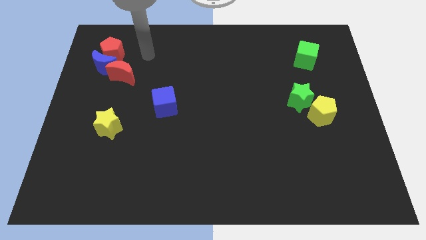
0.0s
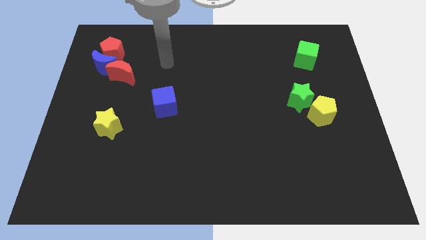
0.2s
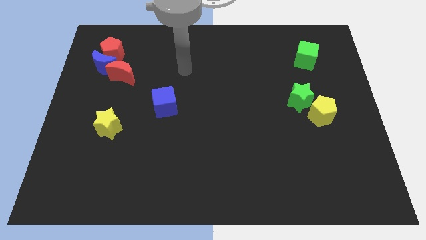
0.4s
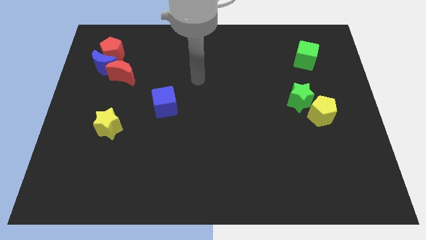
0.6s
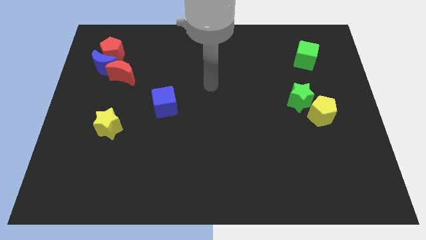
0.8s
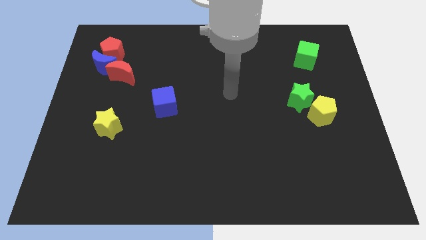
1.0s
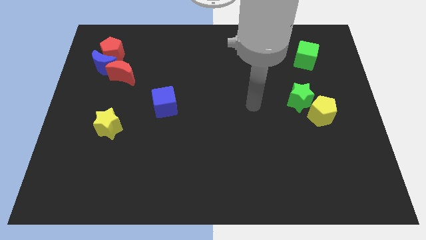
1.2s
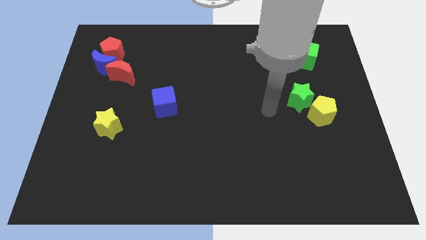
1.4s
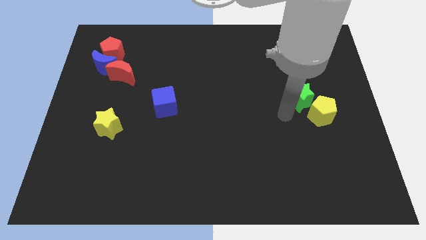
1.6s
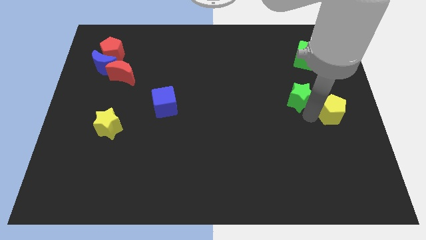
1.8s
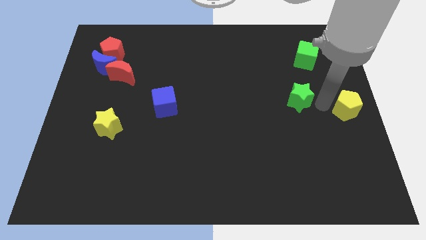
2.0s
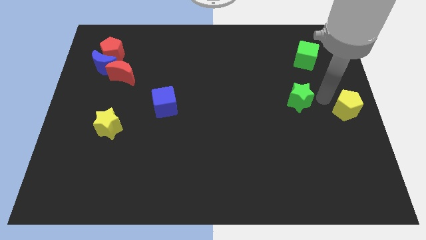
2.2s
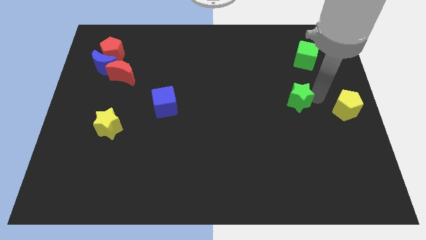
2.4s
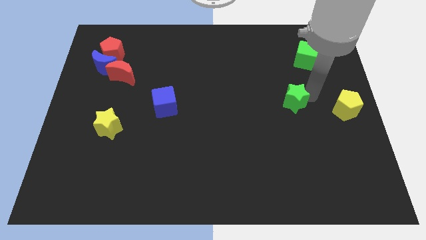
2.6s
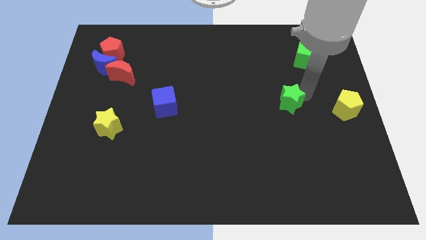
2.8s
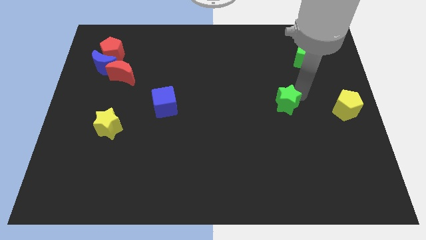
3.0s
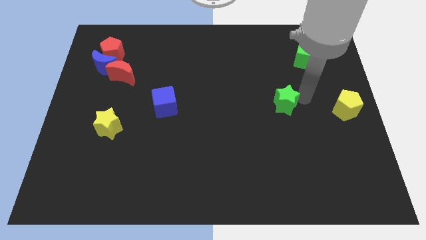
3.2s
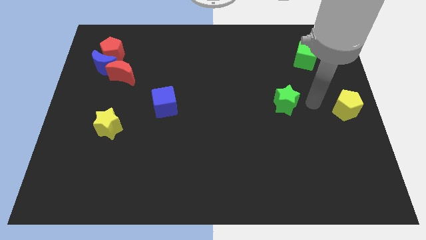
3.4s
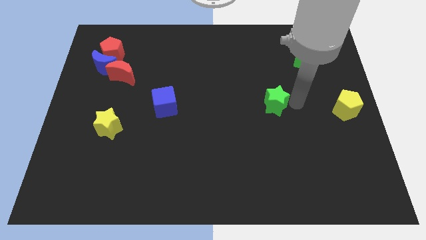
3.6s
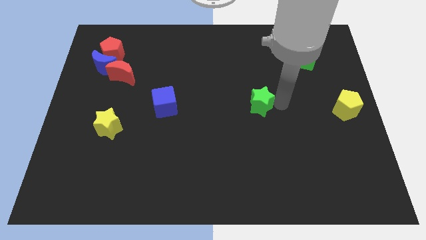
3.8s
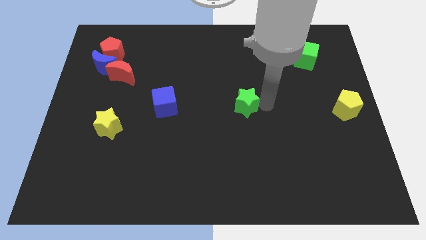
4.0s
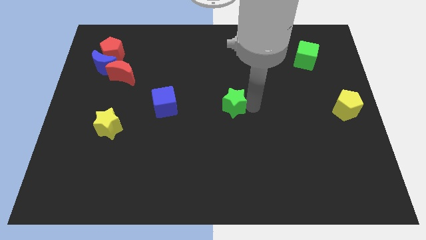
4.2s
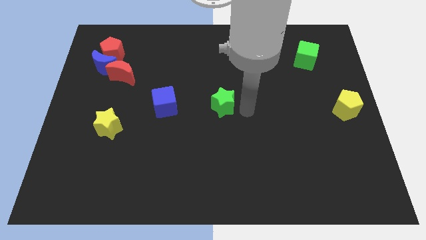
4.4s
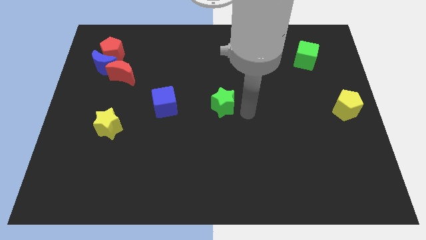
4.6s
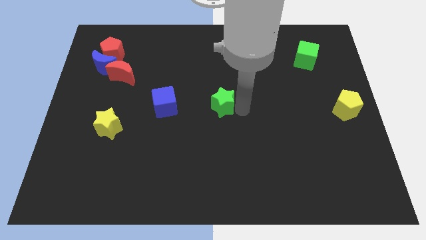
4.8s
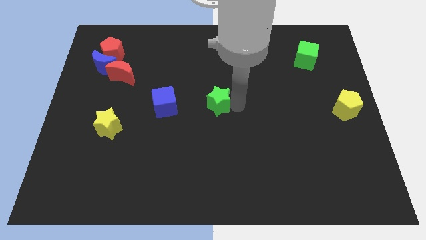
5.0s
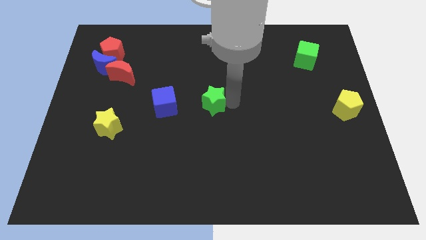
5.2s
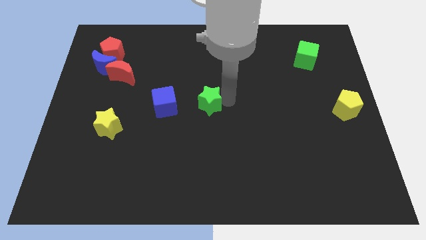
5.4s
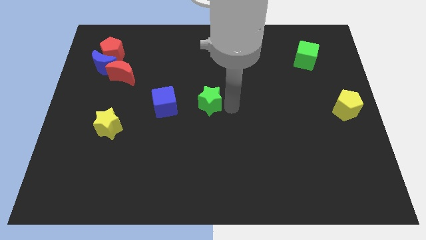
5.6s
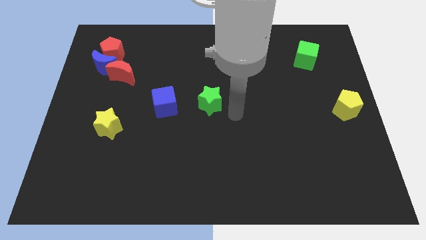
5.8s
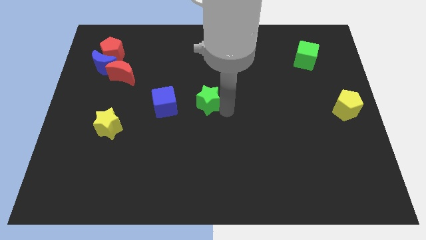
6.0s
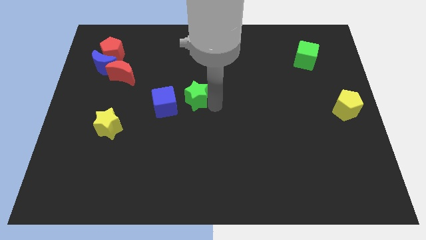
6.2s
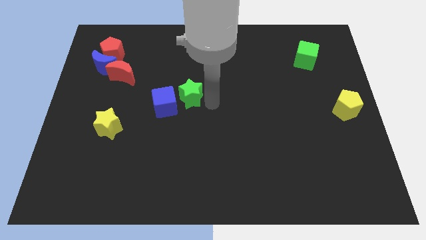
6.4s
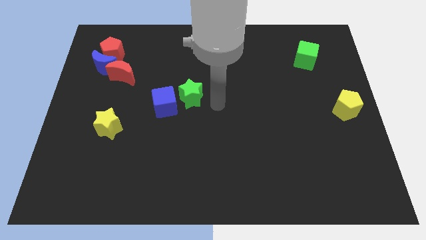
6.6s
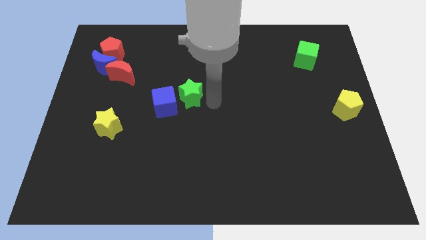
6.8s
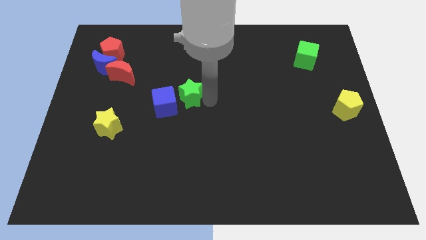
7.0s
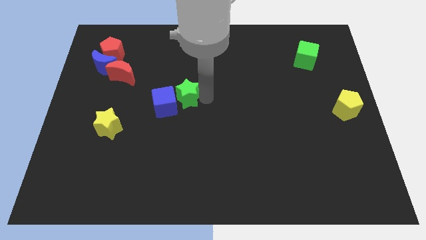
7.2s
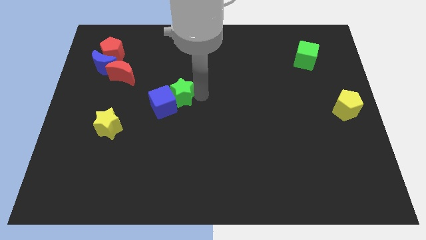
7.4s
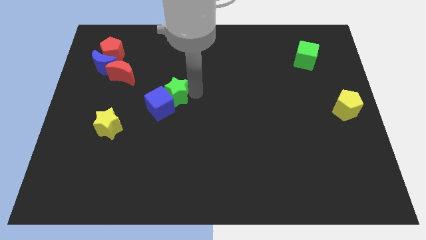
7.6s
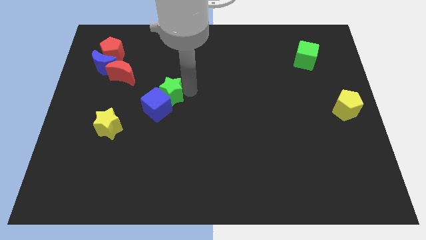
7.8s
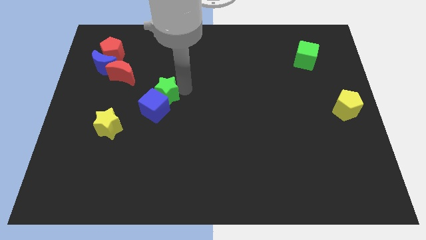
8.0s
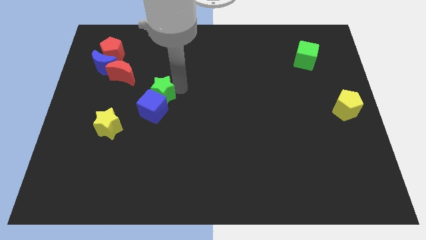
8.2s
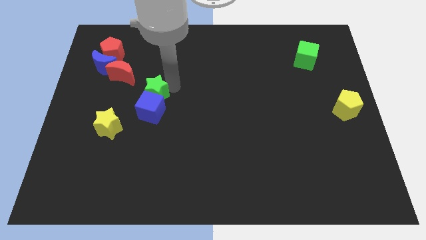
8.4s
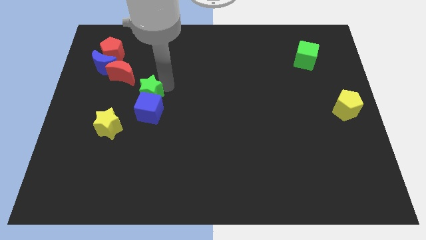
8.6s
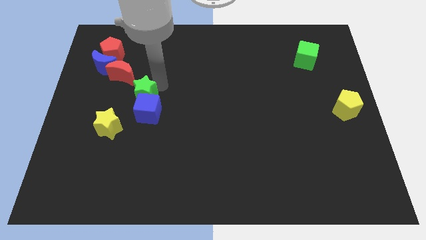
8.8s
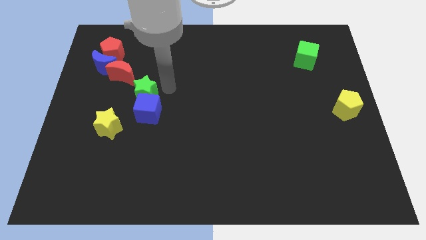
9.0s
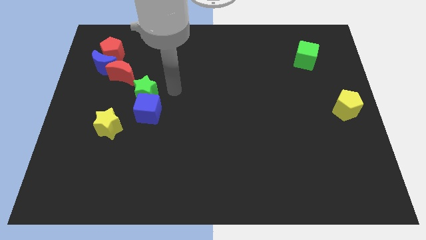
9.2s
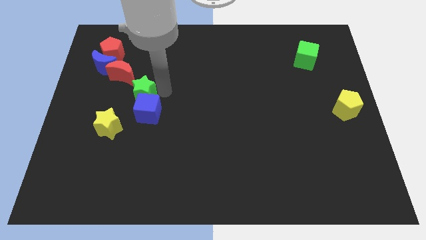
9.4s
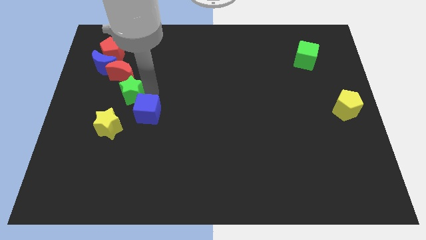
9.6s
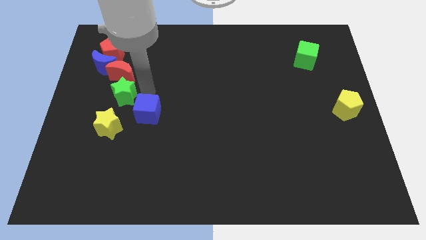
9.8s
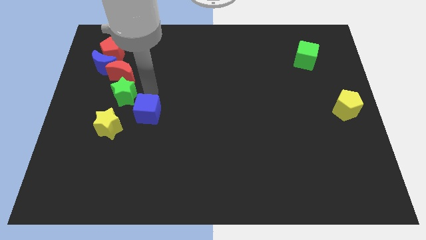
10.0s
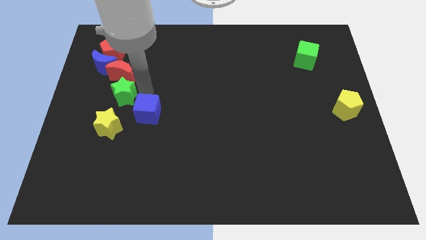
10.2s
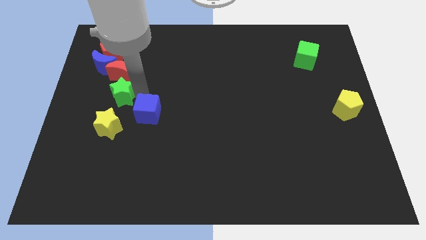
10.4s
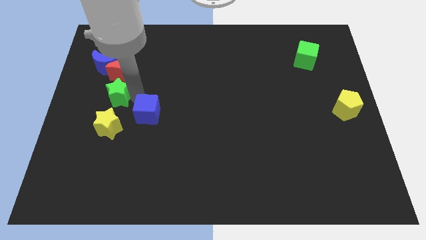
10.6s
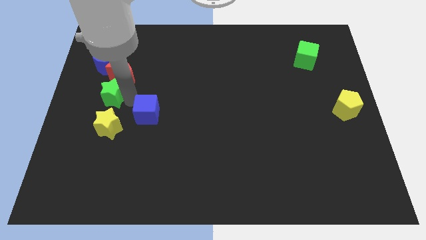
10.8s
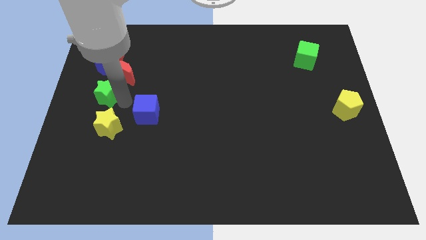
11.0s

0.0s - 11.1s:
slide the green star to the left side

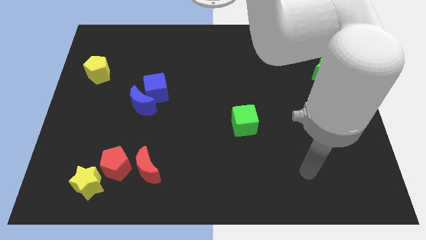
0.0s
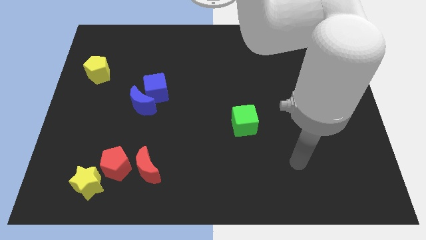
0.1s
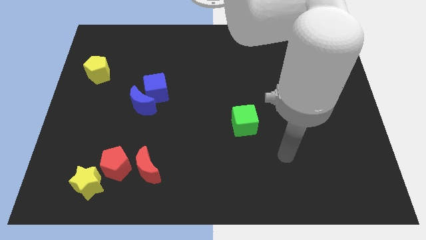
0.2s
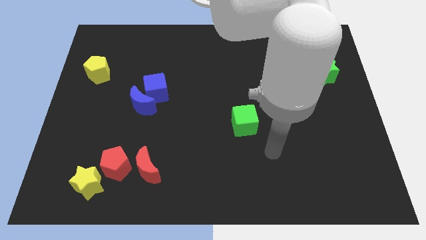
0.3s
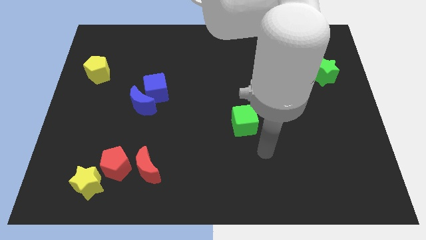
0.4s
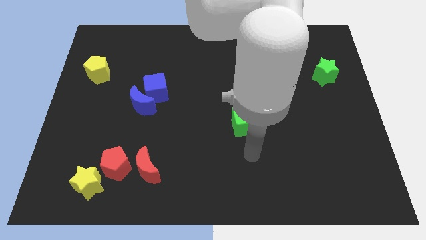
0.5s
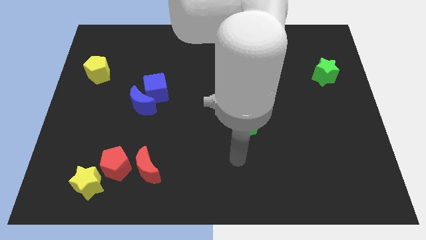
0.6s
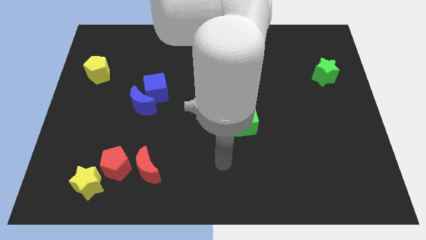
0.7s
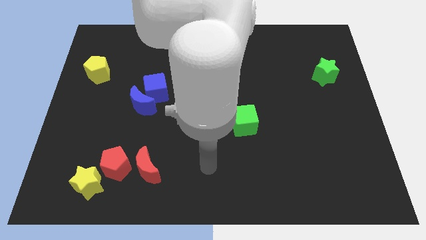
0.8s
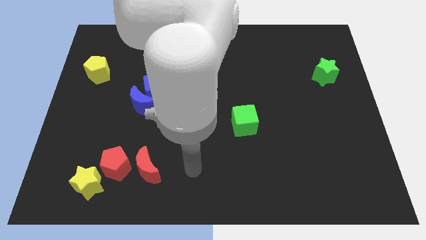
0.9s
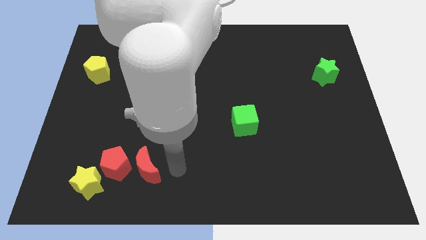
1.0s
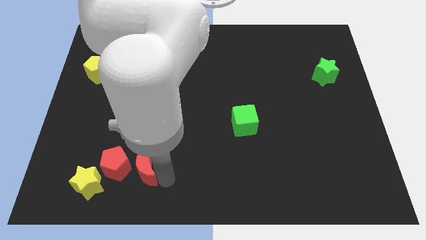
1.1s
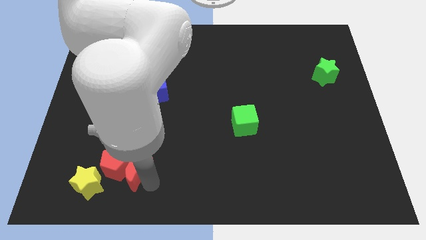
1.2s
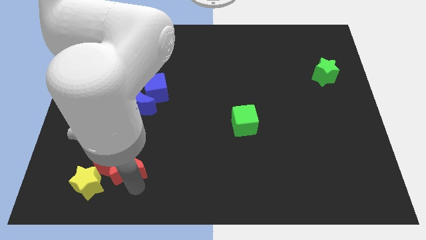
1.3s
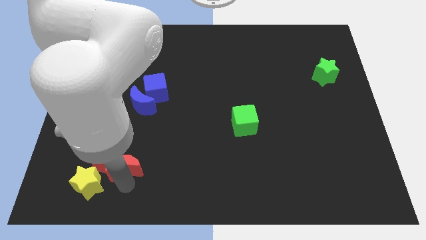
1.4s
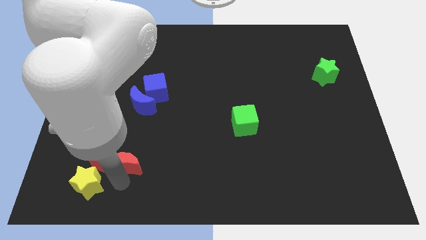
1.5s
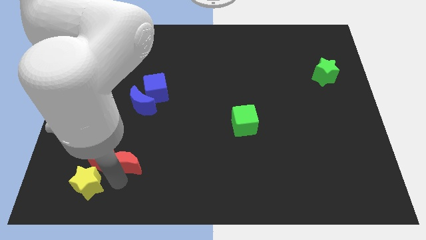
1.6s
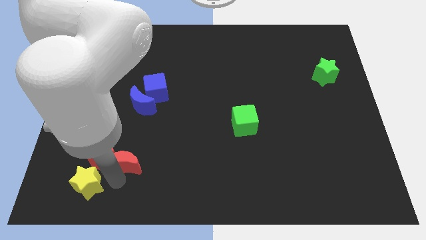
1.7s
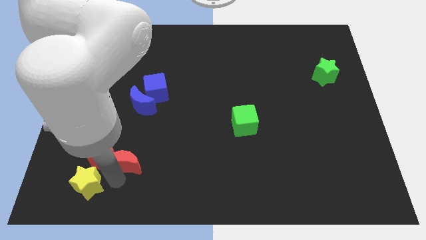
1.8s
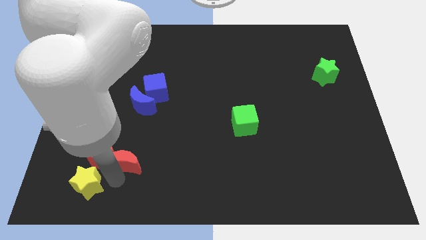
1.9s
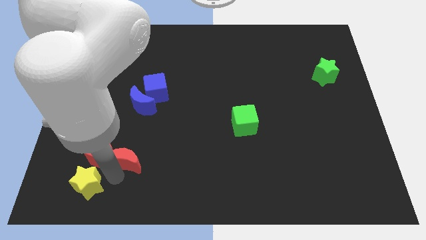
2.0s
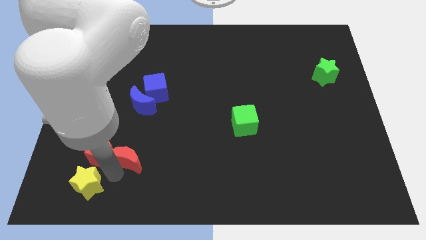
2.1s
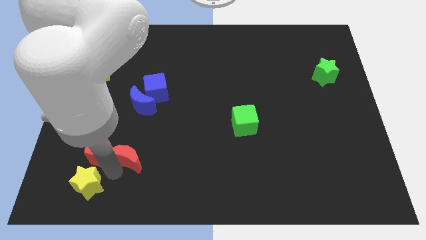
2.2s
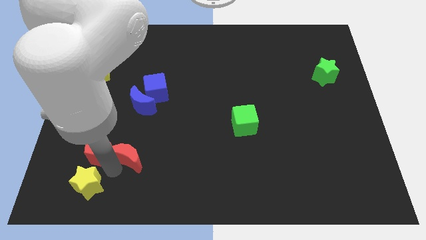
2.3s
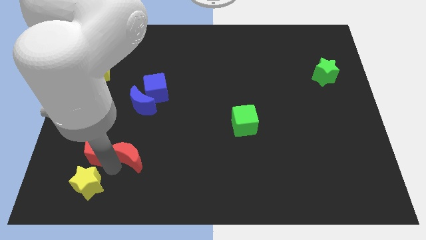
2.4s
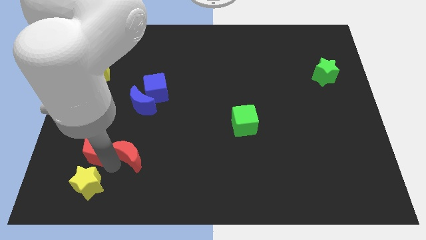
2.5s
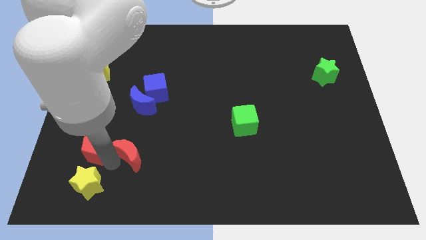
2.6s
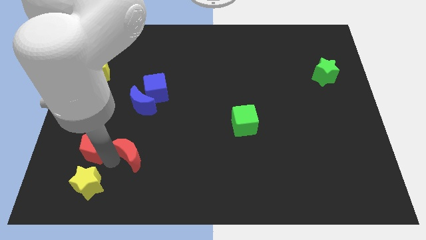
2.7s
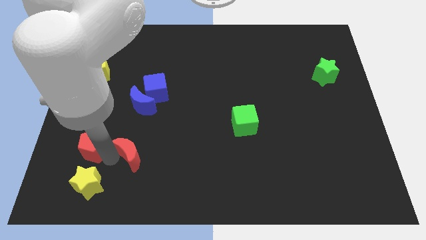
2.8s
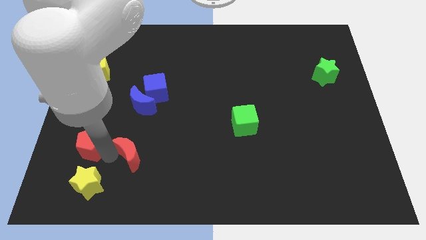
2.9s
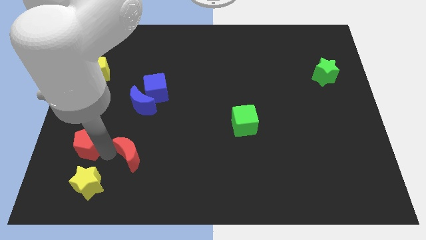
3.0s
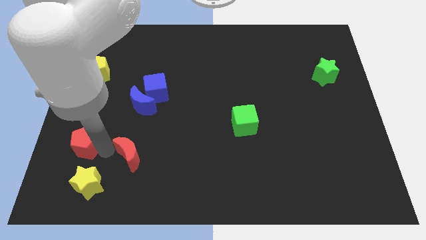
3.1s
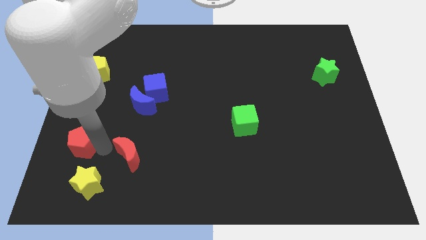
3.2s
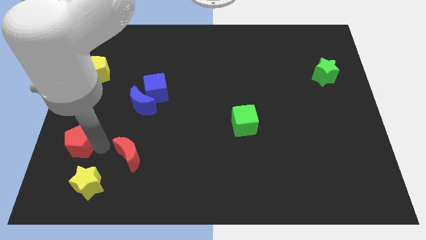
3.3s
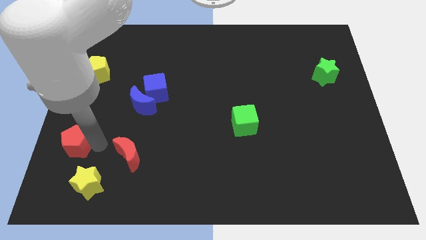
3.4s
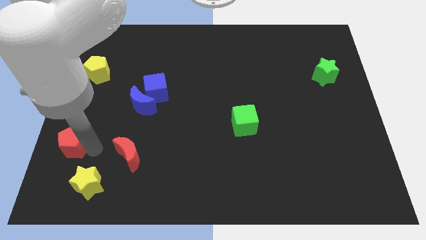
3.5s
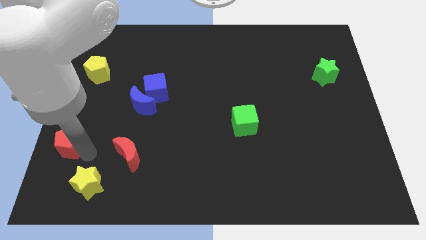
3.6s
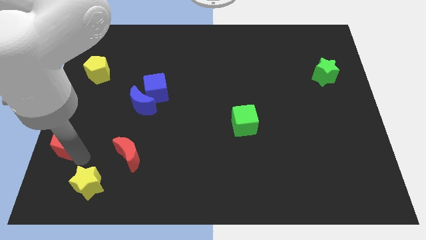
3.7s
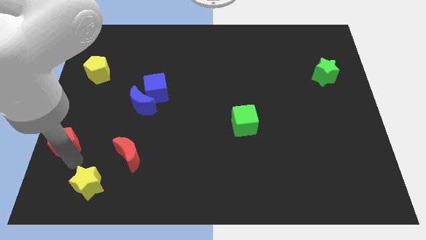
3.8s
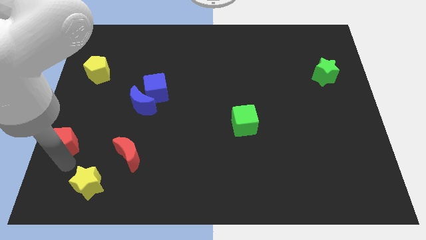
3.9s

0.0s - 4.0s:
move the red pentagon to the left side
